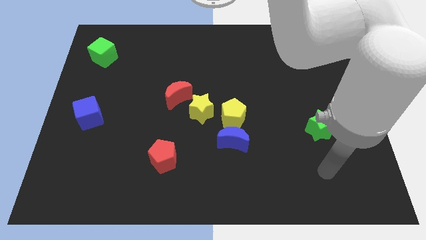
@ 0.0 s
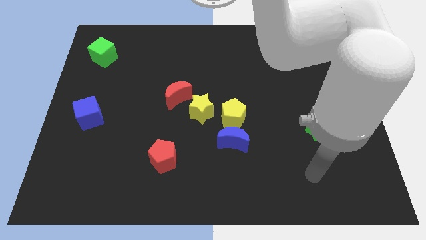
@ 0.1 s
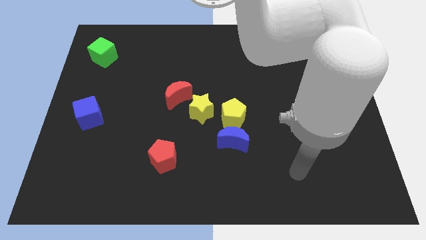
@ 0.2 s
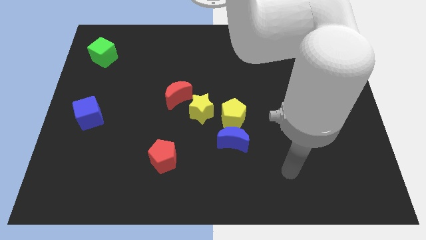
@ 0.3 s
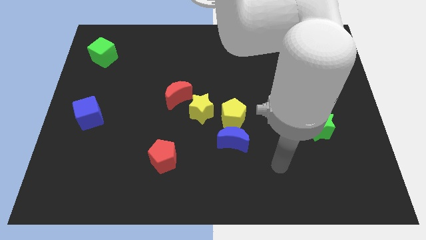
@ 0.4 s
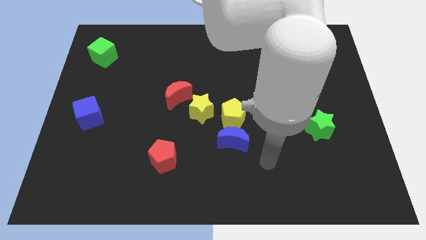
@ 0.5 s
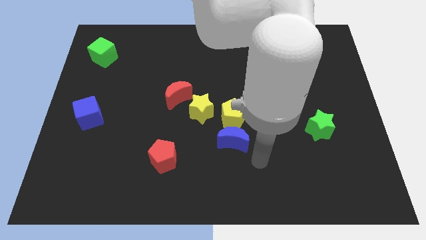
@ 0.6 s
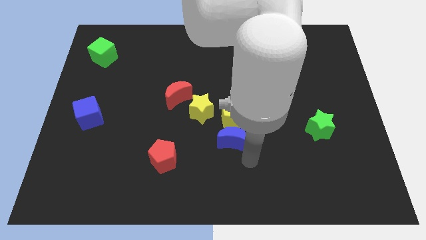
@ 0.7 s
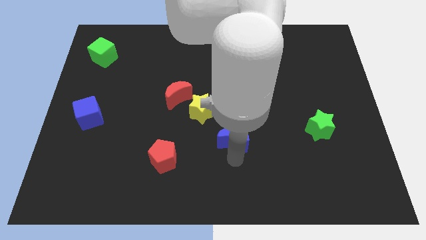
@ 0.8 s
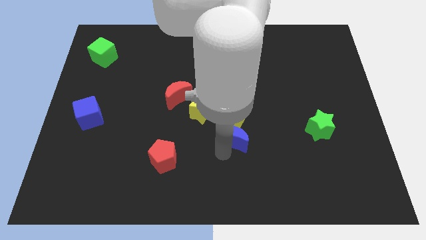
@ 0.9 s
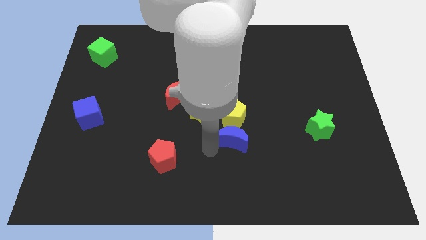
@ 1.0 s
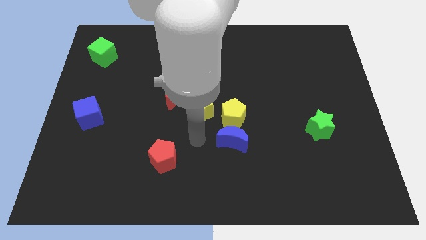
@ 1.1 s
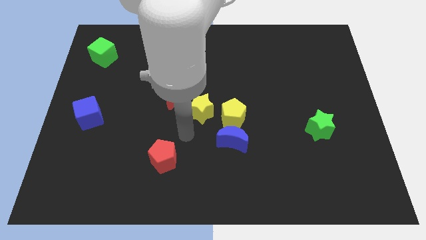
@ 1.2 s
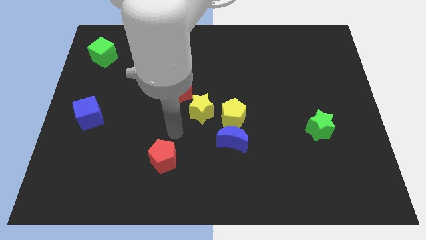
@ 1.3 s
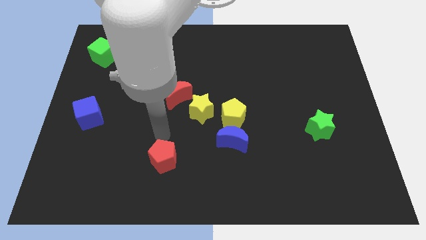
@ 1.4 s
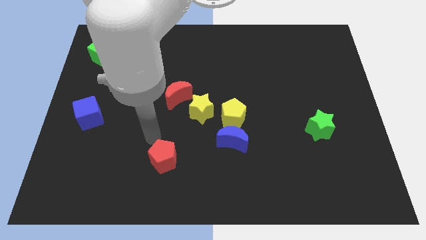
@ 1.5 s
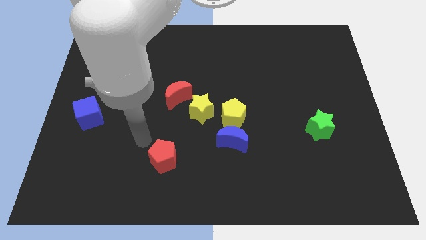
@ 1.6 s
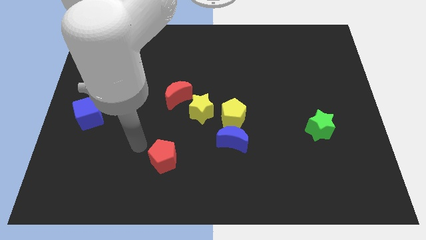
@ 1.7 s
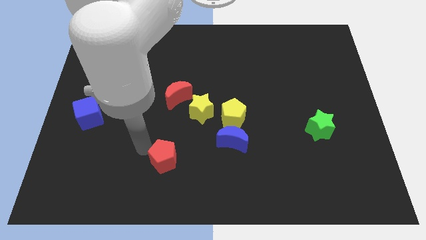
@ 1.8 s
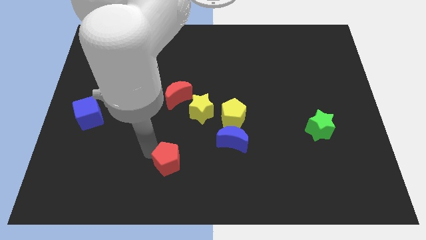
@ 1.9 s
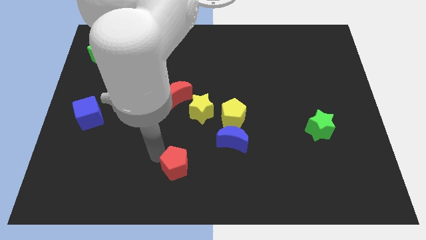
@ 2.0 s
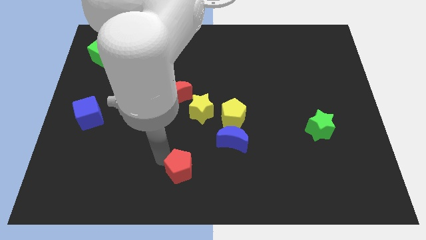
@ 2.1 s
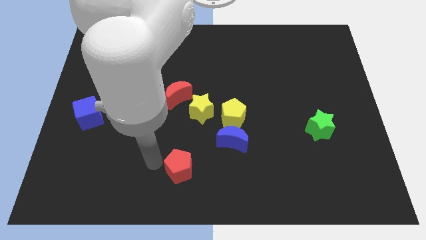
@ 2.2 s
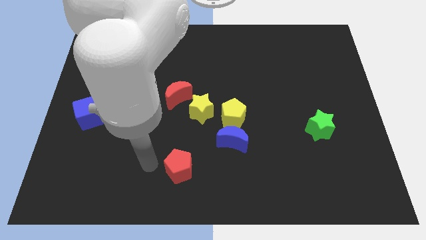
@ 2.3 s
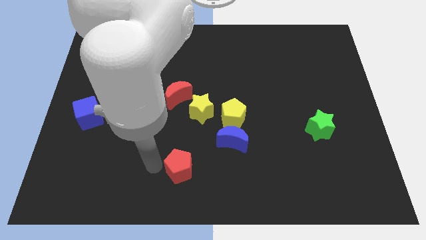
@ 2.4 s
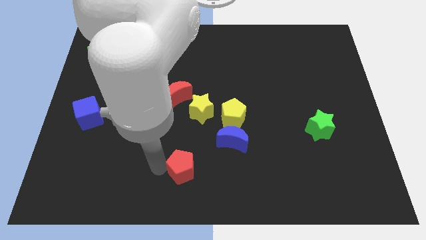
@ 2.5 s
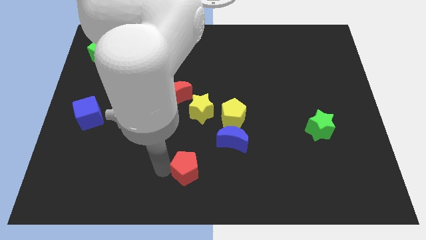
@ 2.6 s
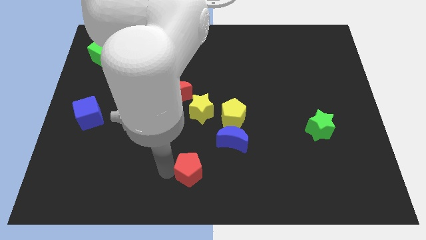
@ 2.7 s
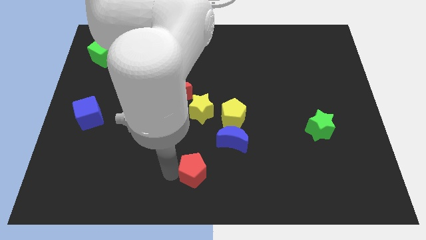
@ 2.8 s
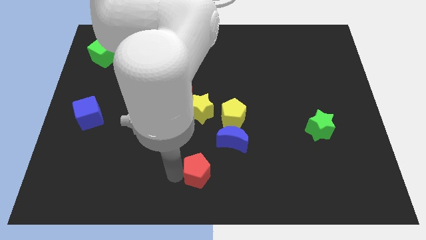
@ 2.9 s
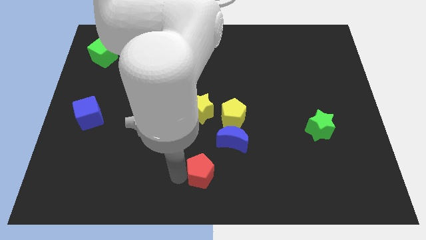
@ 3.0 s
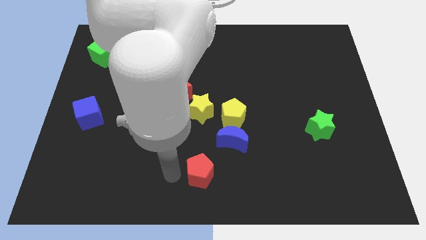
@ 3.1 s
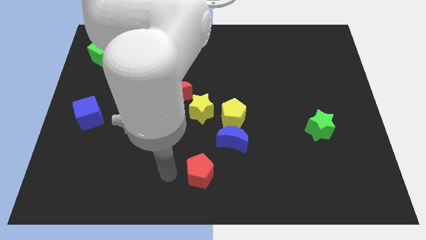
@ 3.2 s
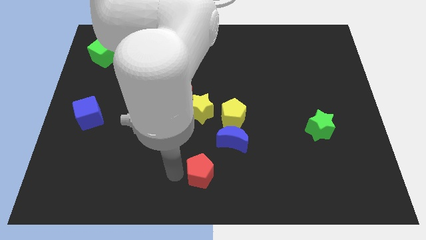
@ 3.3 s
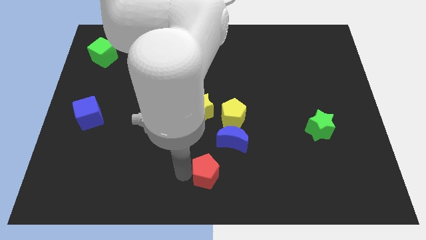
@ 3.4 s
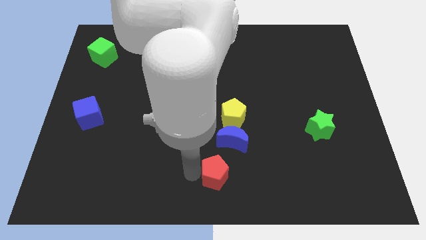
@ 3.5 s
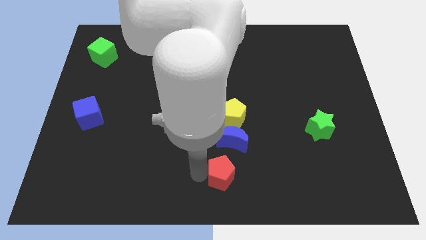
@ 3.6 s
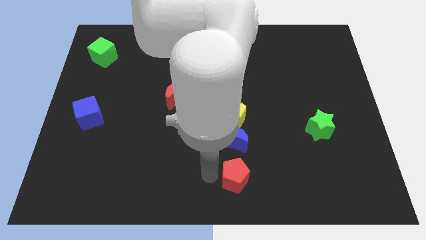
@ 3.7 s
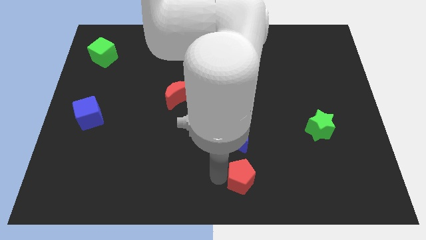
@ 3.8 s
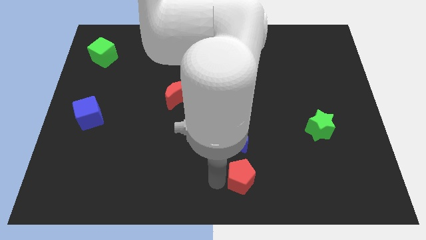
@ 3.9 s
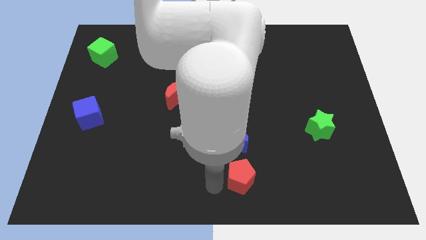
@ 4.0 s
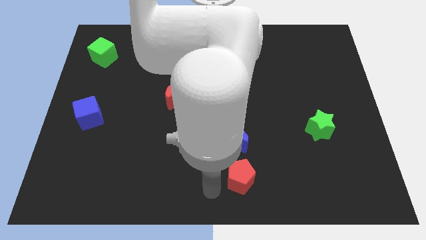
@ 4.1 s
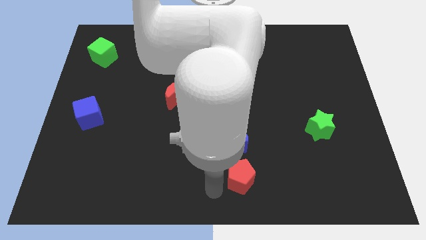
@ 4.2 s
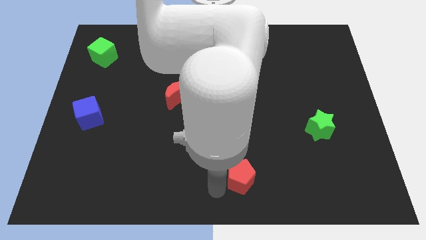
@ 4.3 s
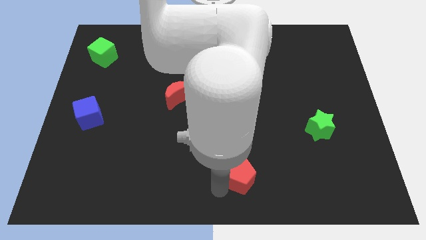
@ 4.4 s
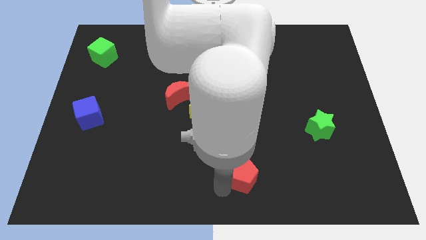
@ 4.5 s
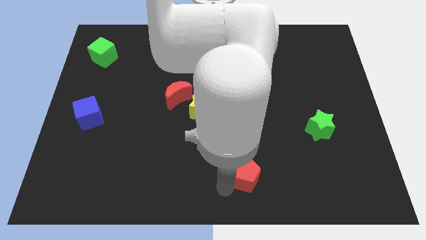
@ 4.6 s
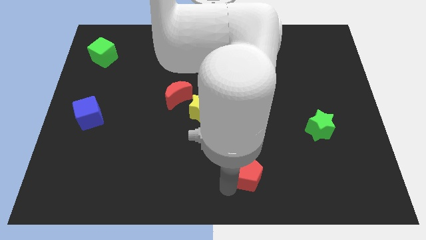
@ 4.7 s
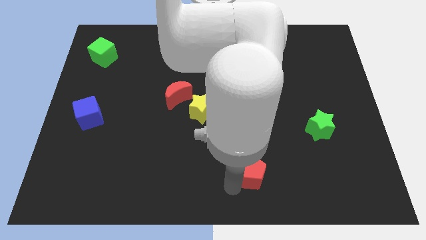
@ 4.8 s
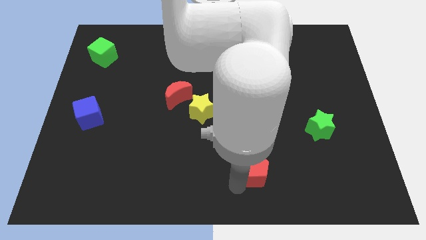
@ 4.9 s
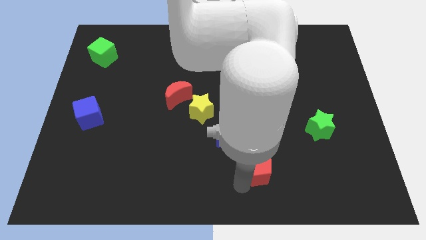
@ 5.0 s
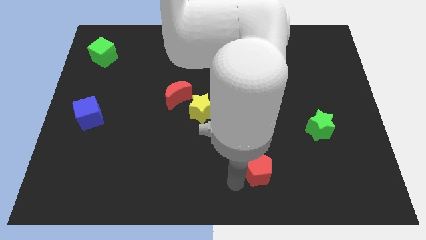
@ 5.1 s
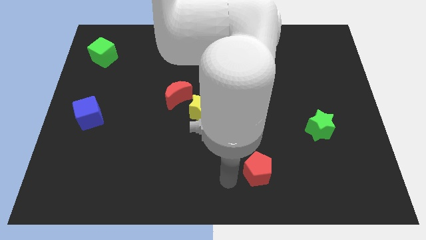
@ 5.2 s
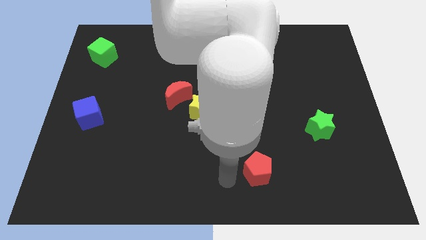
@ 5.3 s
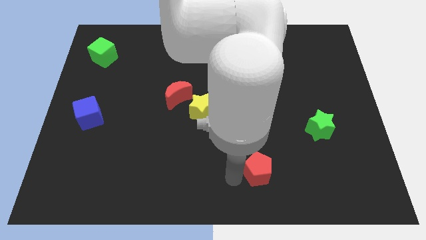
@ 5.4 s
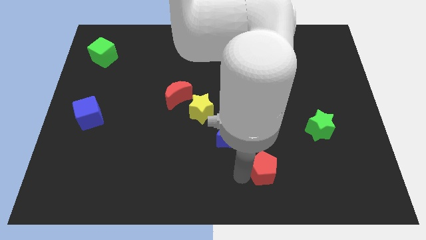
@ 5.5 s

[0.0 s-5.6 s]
push the red pentagon to the right

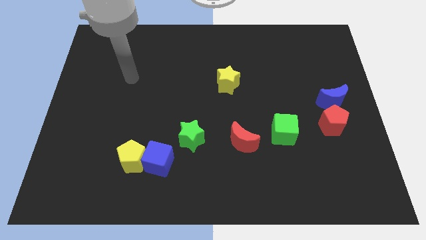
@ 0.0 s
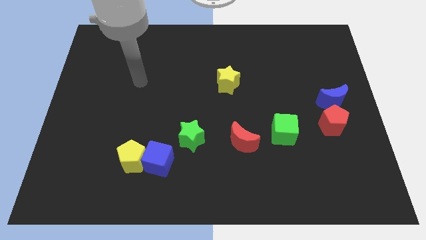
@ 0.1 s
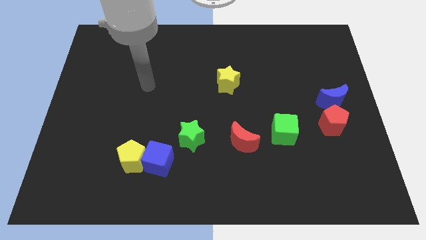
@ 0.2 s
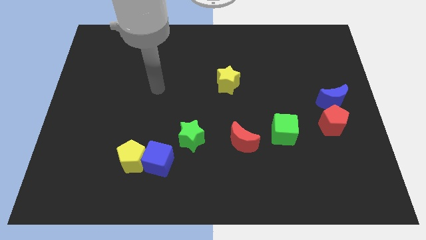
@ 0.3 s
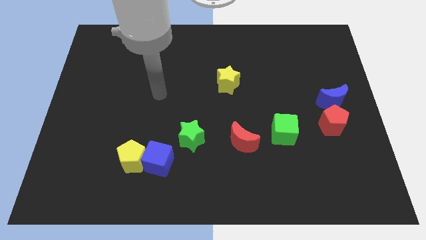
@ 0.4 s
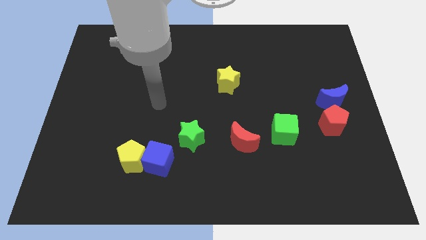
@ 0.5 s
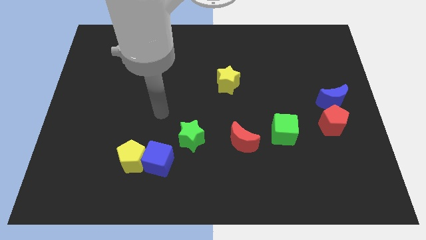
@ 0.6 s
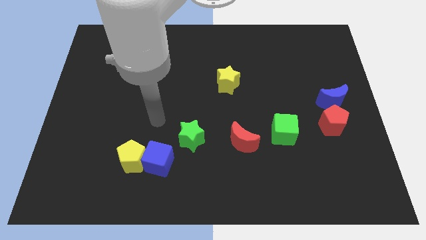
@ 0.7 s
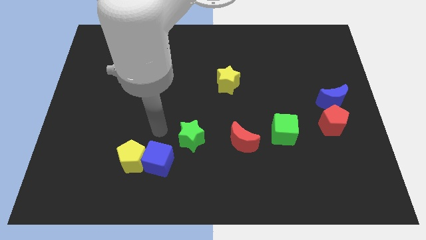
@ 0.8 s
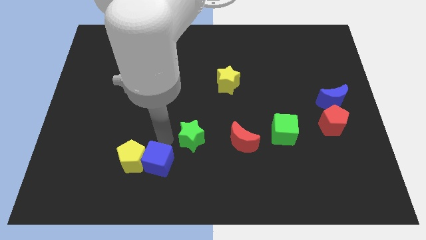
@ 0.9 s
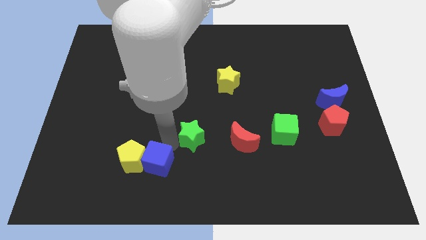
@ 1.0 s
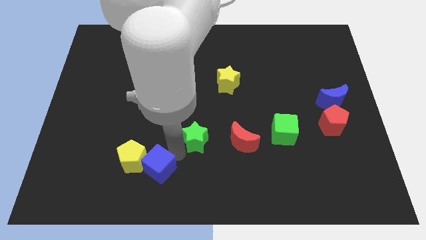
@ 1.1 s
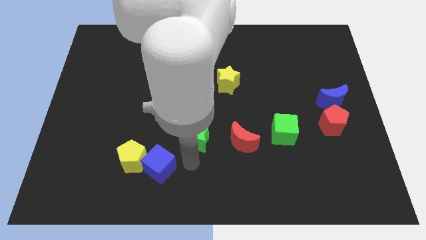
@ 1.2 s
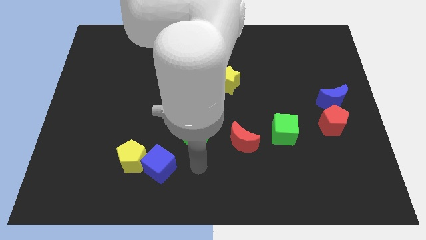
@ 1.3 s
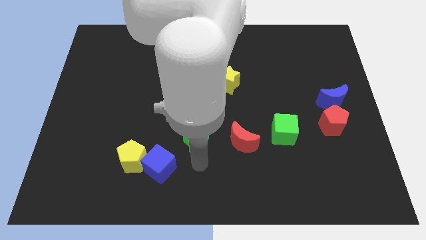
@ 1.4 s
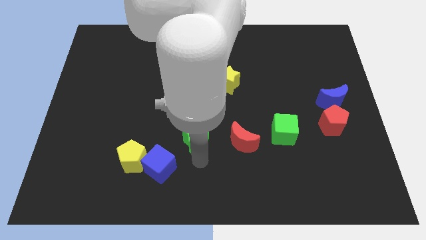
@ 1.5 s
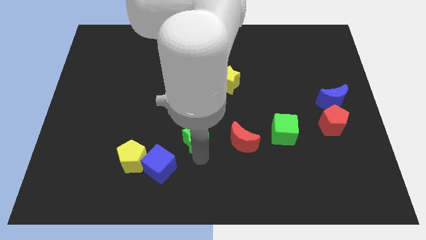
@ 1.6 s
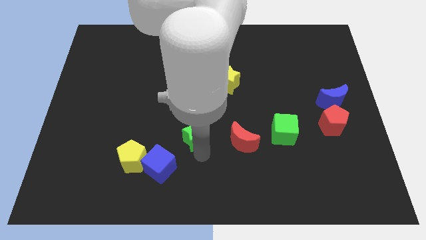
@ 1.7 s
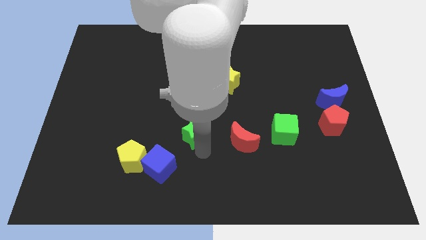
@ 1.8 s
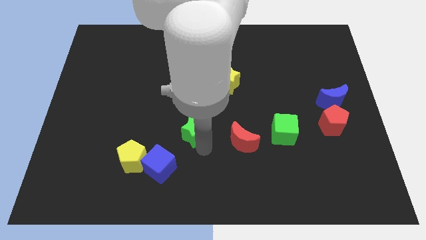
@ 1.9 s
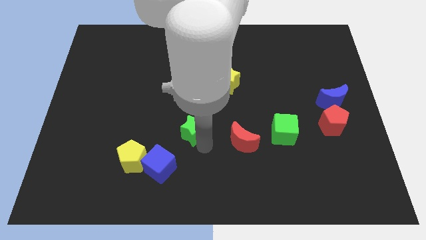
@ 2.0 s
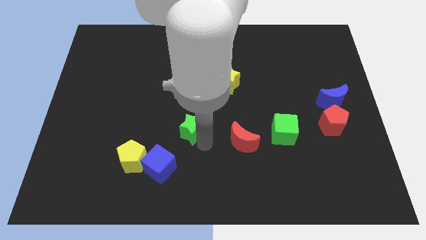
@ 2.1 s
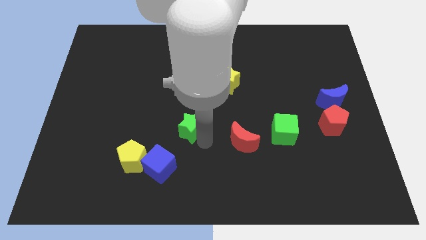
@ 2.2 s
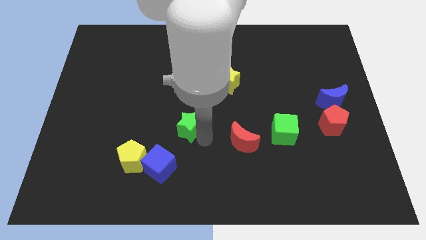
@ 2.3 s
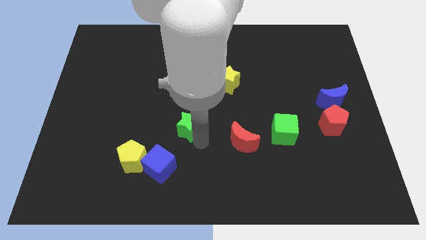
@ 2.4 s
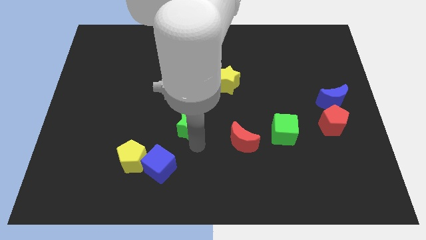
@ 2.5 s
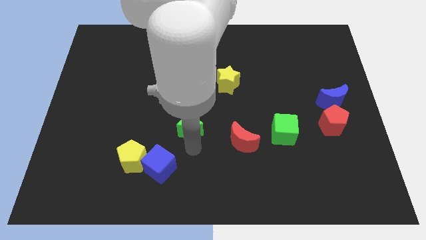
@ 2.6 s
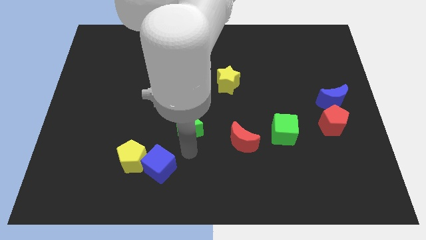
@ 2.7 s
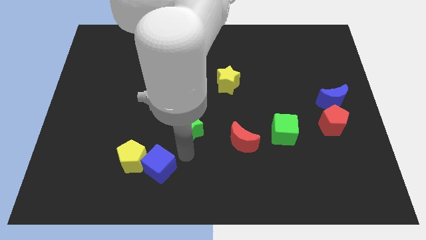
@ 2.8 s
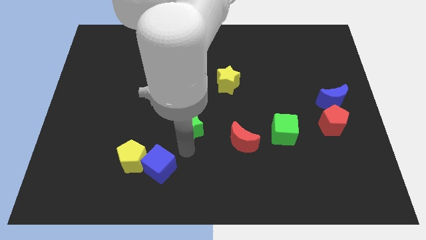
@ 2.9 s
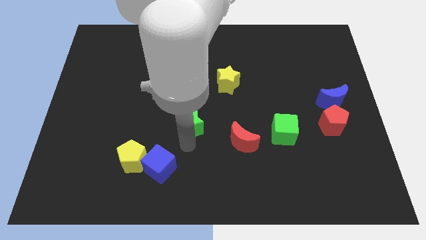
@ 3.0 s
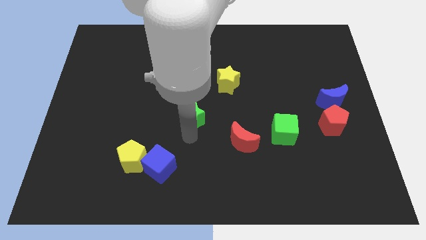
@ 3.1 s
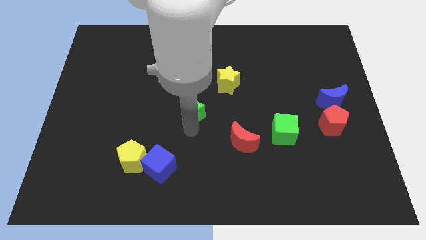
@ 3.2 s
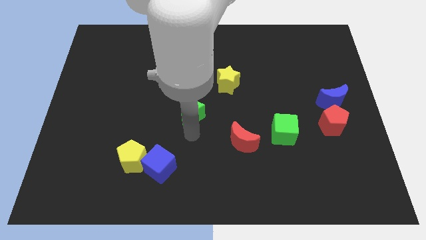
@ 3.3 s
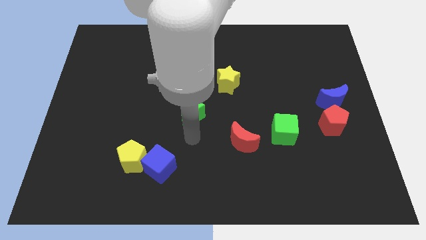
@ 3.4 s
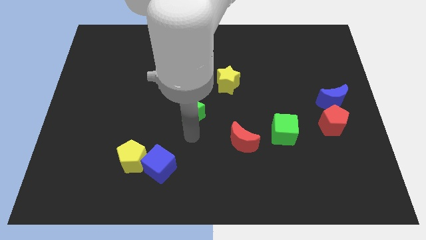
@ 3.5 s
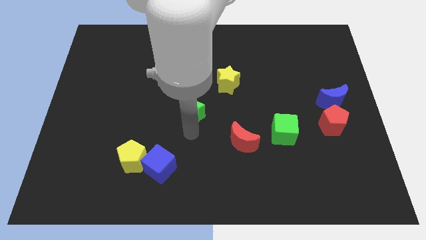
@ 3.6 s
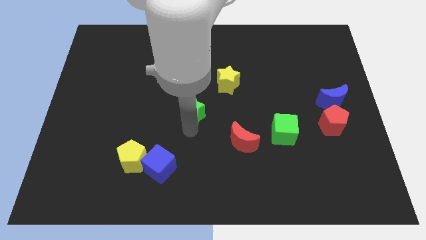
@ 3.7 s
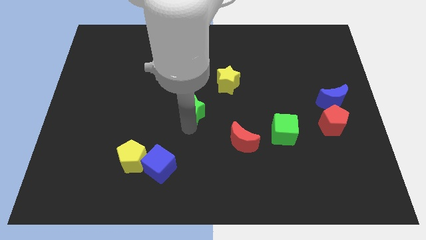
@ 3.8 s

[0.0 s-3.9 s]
slide the green star a little upwards
